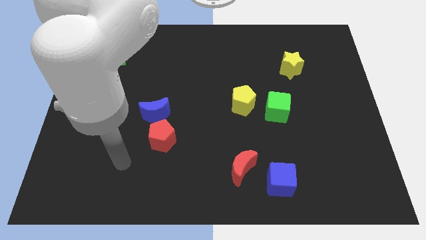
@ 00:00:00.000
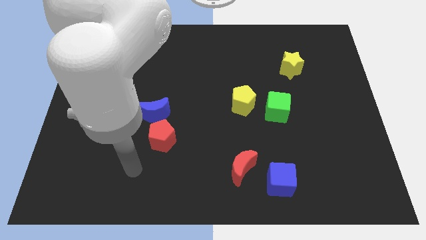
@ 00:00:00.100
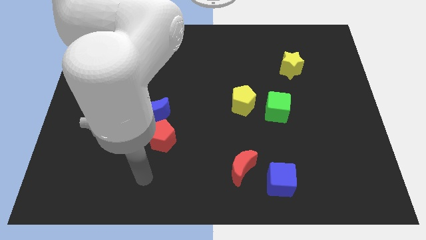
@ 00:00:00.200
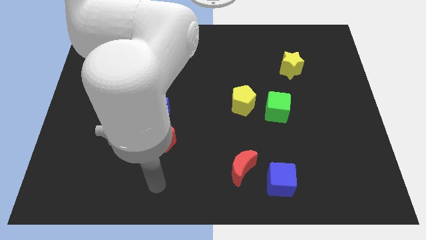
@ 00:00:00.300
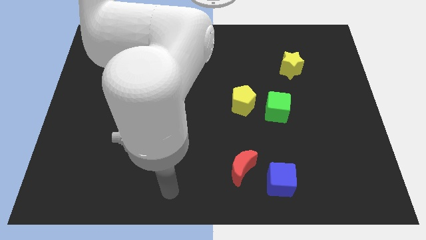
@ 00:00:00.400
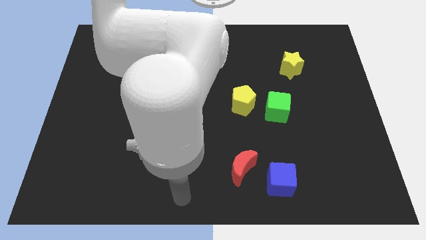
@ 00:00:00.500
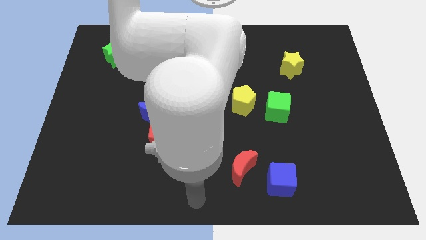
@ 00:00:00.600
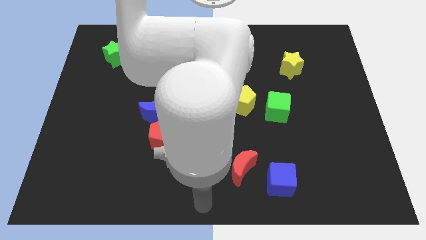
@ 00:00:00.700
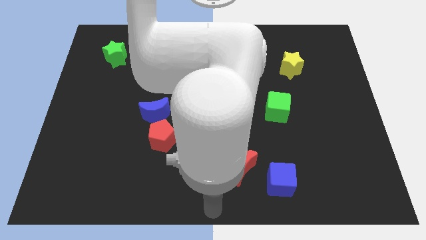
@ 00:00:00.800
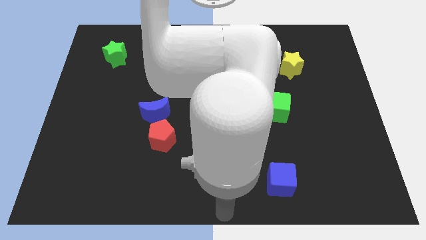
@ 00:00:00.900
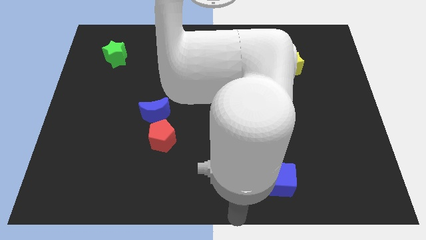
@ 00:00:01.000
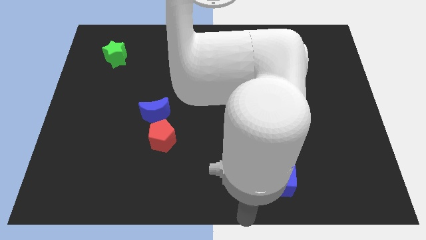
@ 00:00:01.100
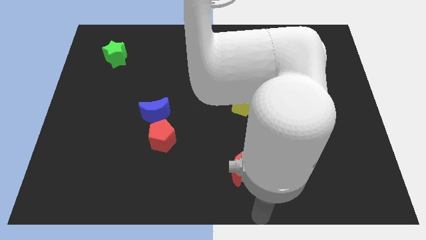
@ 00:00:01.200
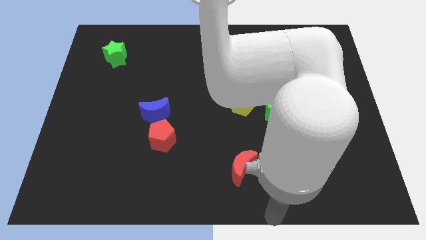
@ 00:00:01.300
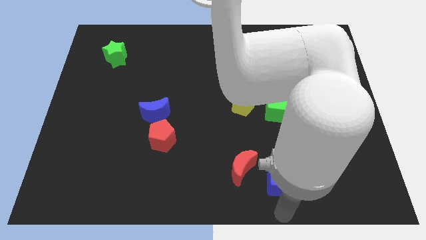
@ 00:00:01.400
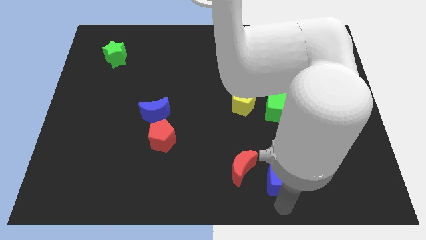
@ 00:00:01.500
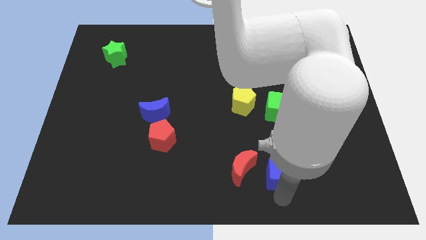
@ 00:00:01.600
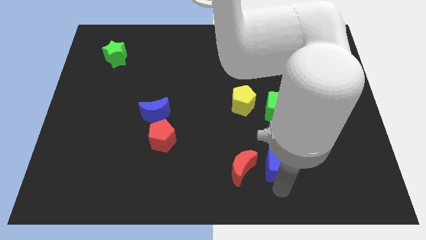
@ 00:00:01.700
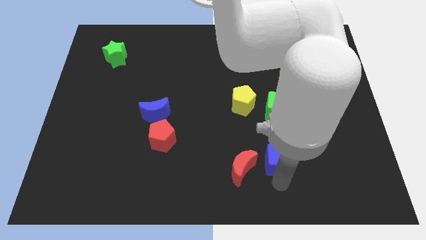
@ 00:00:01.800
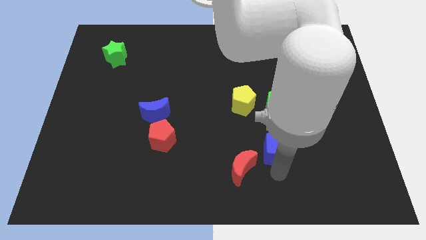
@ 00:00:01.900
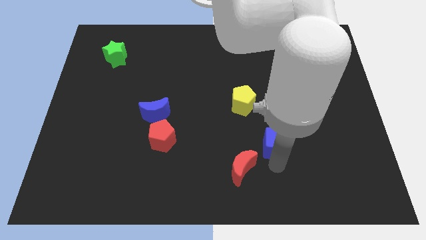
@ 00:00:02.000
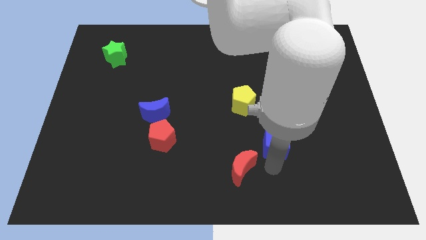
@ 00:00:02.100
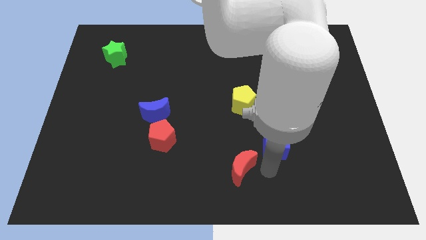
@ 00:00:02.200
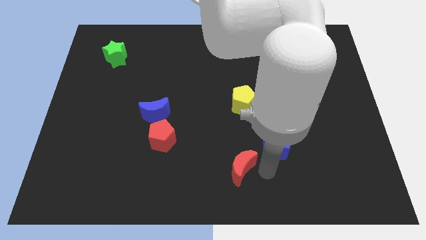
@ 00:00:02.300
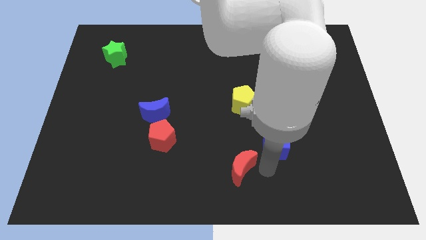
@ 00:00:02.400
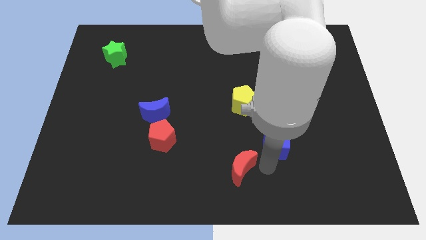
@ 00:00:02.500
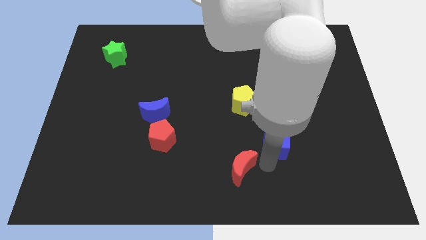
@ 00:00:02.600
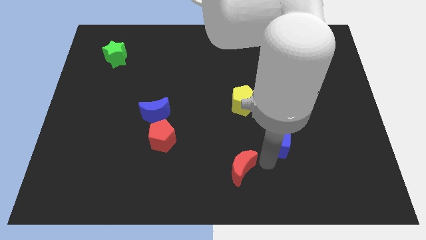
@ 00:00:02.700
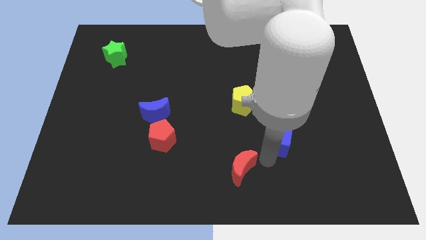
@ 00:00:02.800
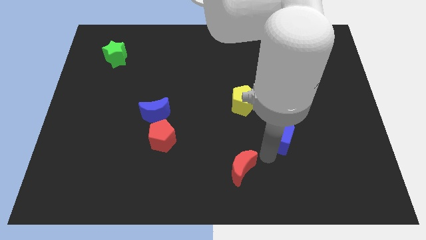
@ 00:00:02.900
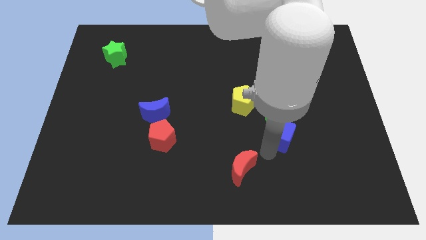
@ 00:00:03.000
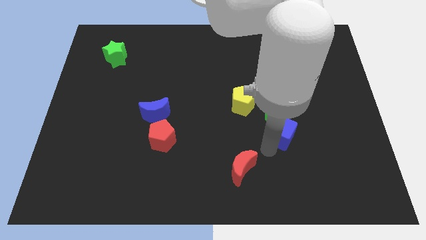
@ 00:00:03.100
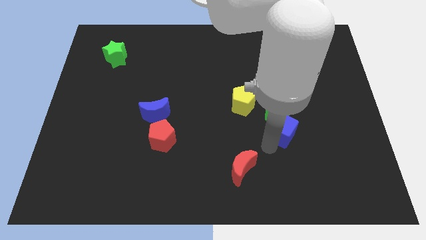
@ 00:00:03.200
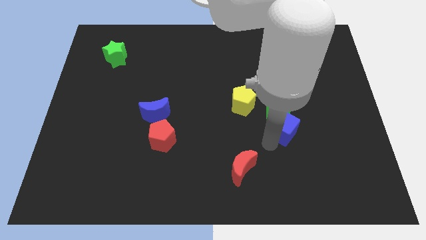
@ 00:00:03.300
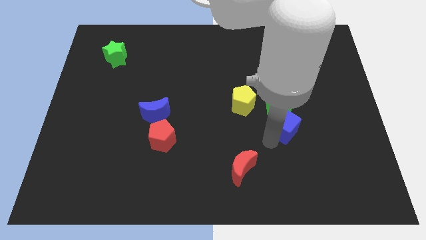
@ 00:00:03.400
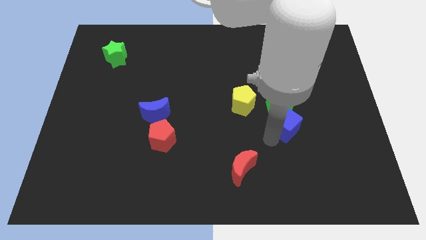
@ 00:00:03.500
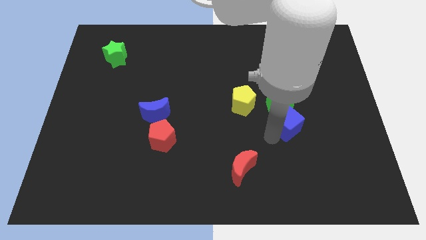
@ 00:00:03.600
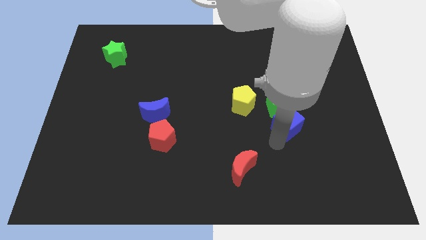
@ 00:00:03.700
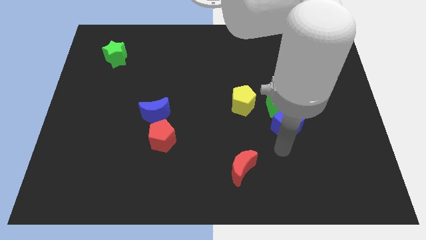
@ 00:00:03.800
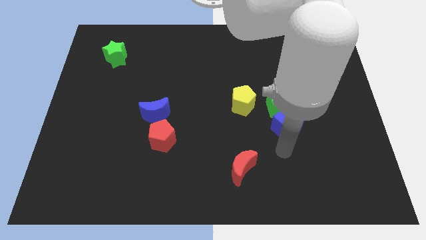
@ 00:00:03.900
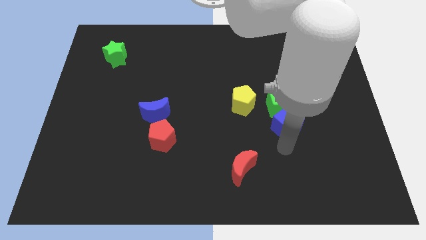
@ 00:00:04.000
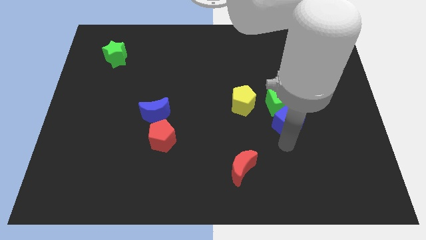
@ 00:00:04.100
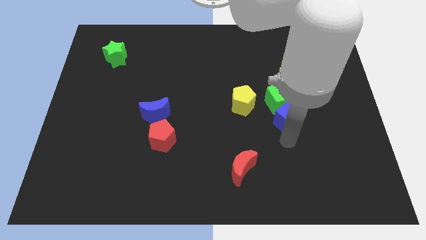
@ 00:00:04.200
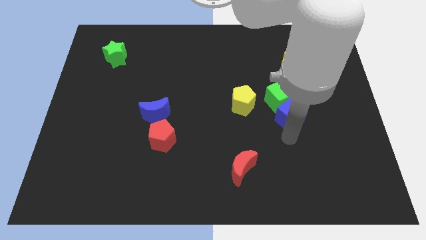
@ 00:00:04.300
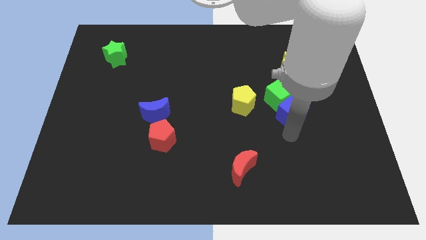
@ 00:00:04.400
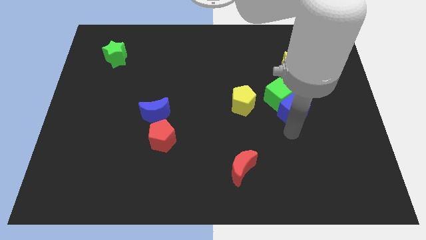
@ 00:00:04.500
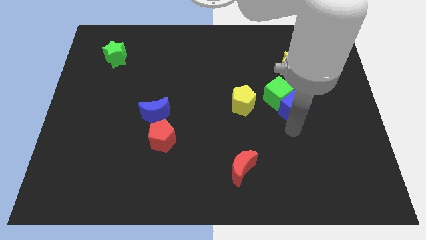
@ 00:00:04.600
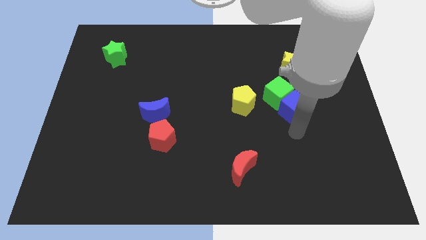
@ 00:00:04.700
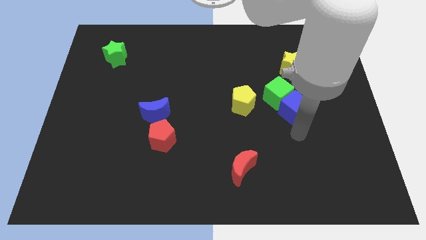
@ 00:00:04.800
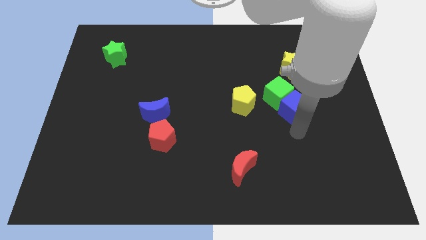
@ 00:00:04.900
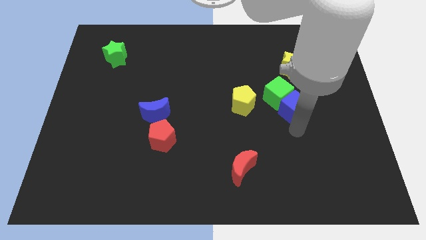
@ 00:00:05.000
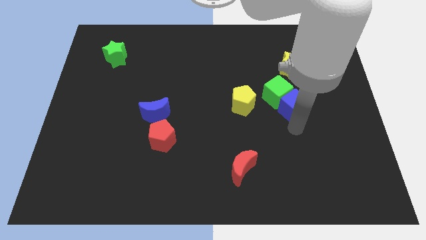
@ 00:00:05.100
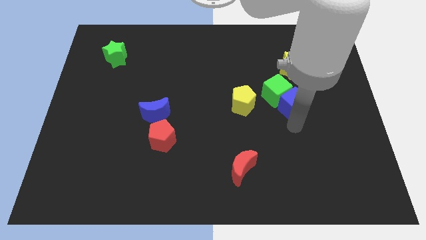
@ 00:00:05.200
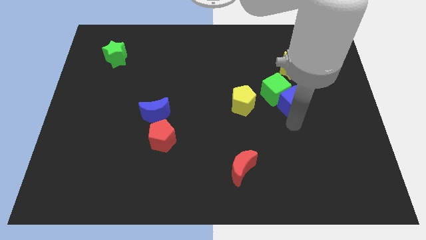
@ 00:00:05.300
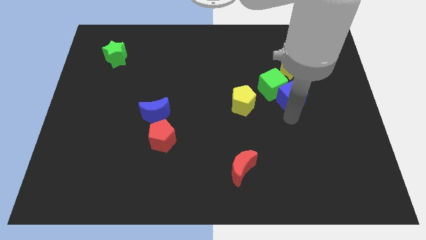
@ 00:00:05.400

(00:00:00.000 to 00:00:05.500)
slide the blue cube up

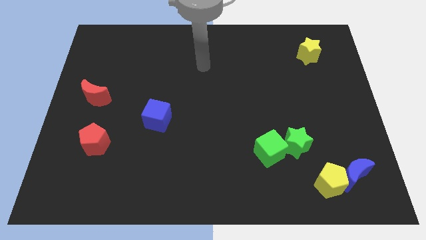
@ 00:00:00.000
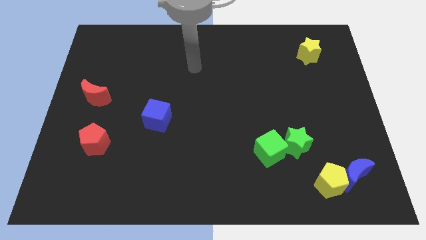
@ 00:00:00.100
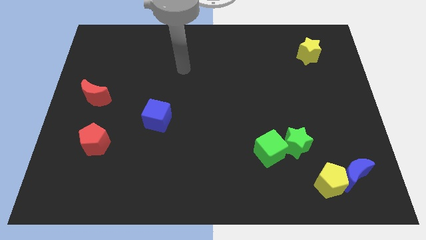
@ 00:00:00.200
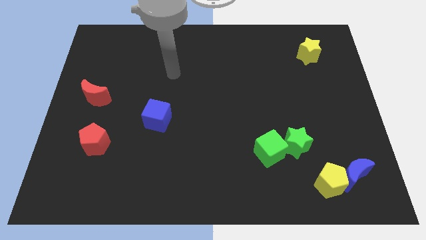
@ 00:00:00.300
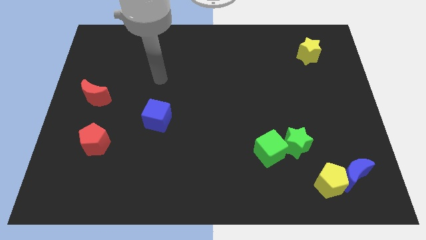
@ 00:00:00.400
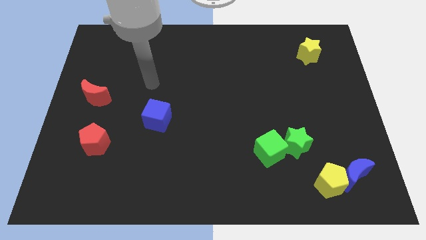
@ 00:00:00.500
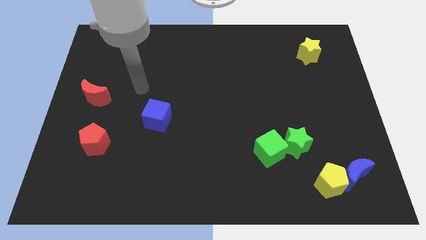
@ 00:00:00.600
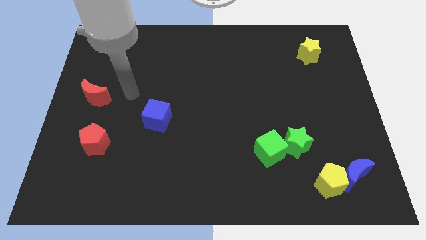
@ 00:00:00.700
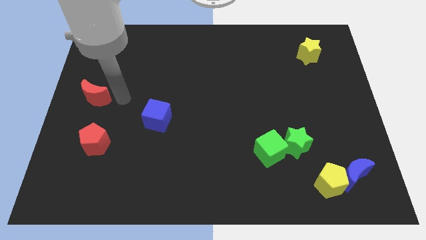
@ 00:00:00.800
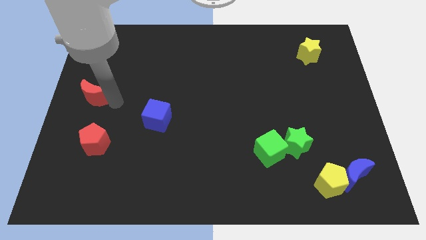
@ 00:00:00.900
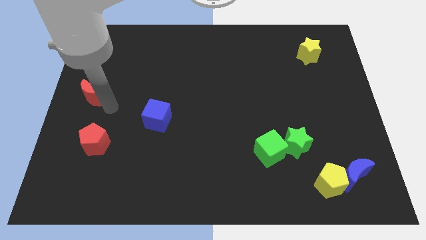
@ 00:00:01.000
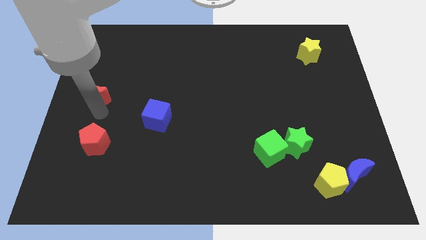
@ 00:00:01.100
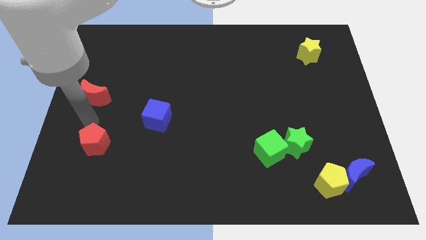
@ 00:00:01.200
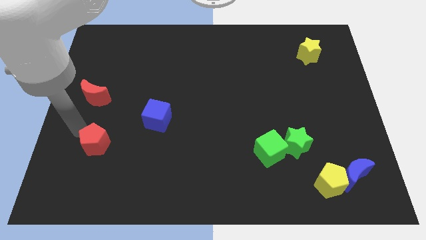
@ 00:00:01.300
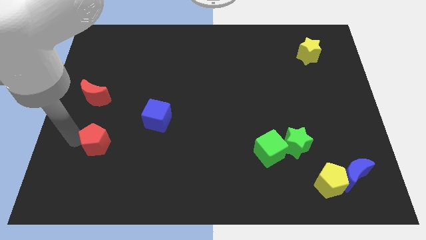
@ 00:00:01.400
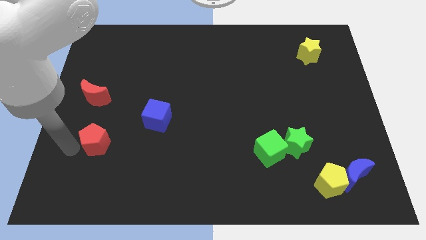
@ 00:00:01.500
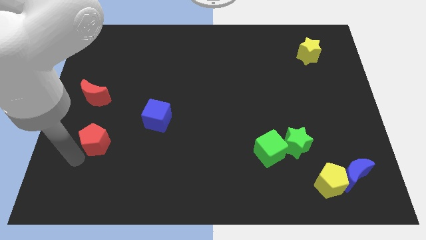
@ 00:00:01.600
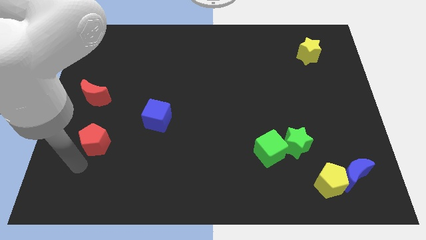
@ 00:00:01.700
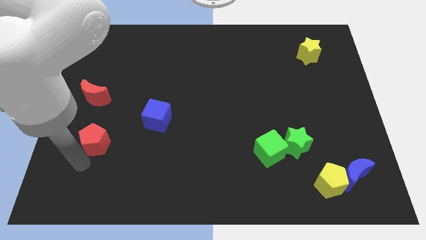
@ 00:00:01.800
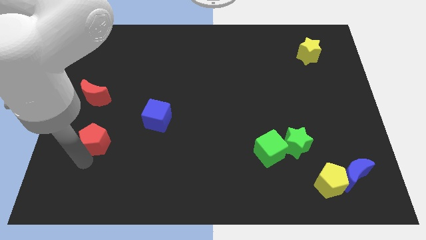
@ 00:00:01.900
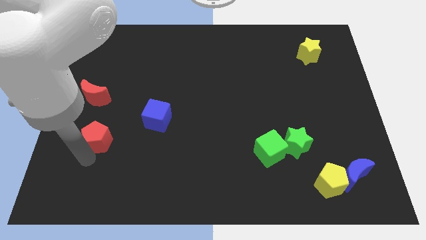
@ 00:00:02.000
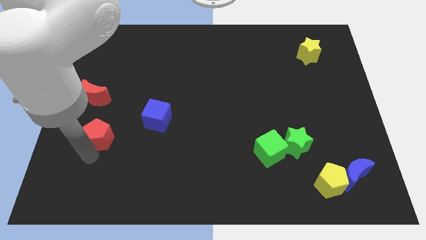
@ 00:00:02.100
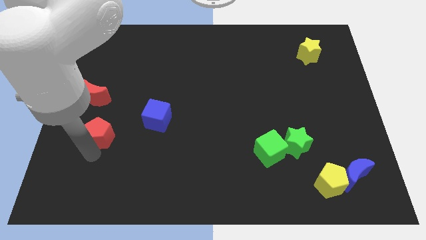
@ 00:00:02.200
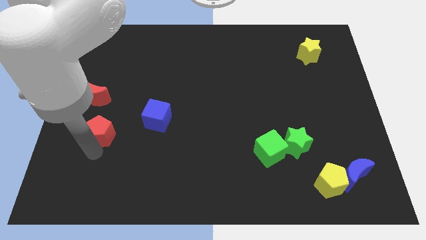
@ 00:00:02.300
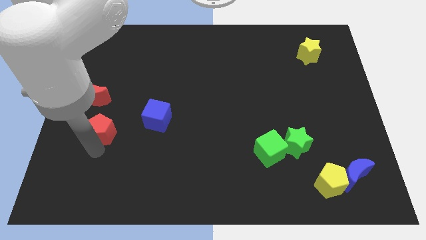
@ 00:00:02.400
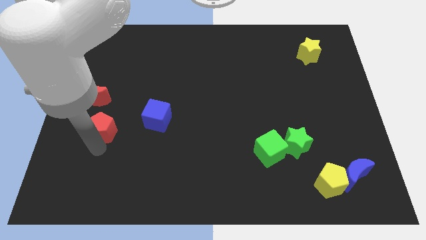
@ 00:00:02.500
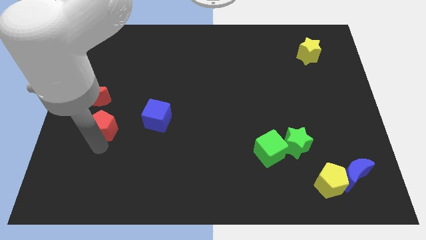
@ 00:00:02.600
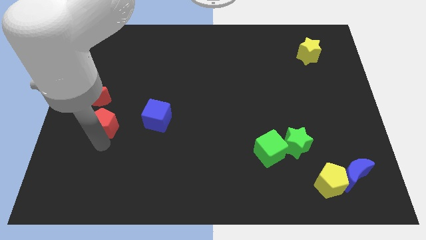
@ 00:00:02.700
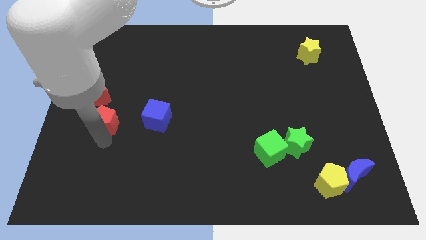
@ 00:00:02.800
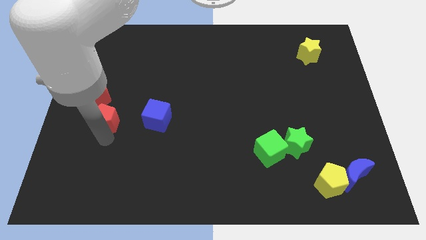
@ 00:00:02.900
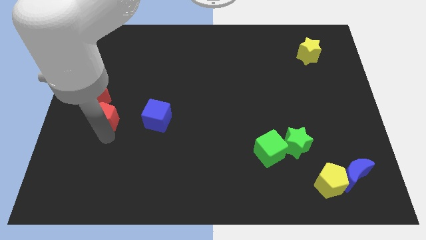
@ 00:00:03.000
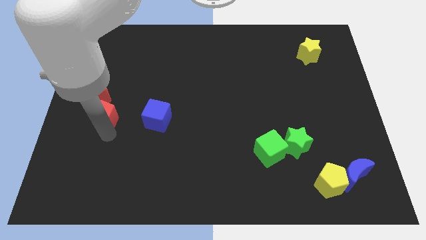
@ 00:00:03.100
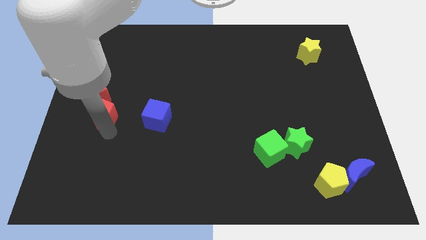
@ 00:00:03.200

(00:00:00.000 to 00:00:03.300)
slightly push the red pentagon upwards
